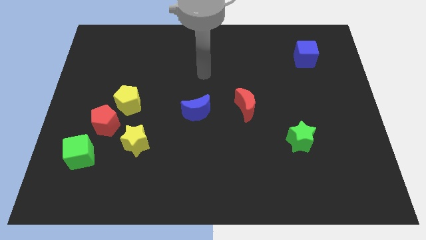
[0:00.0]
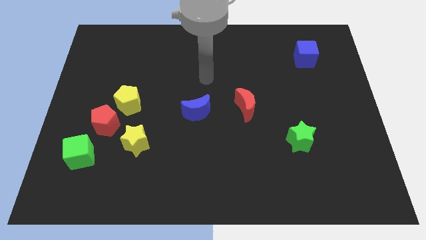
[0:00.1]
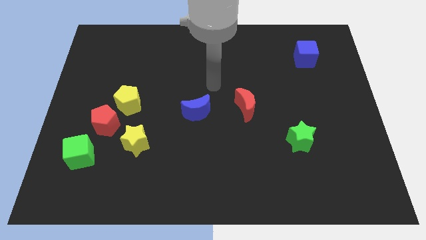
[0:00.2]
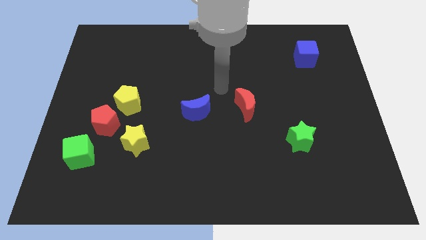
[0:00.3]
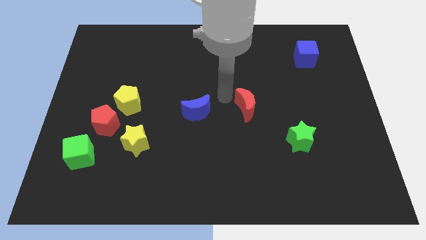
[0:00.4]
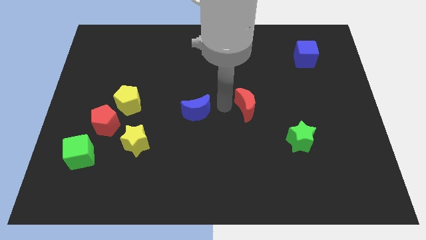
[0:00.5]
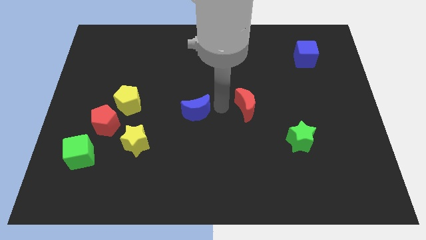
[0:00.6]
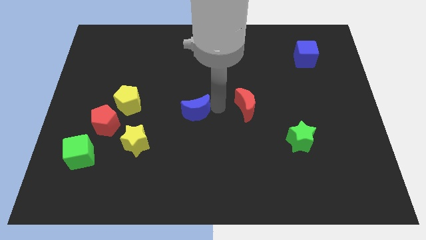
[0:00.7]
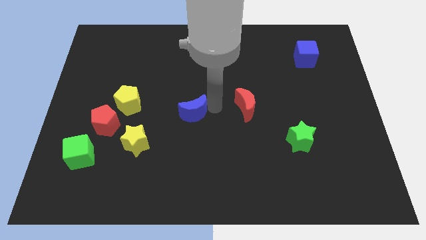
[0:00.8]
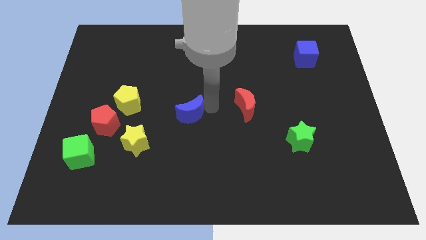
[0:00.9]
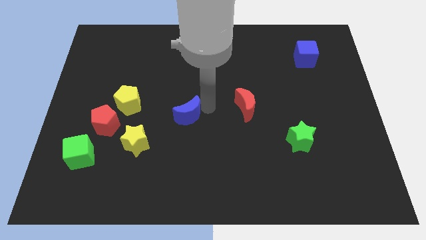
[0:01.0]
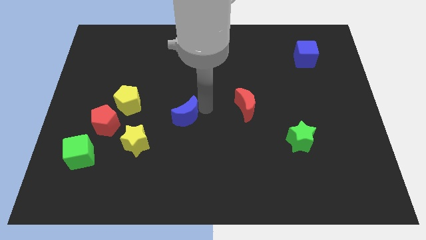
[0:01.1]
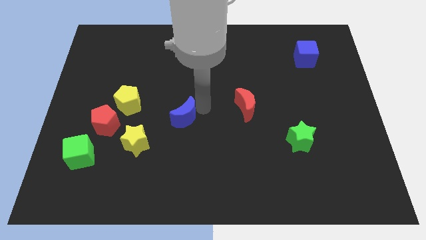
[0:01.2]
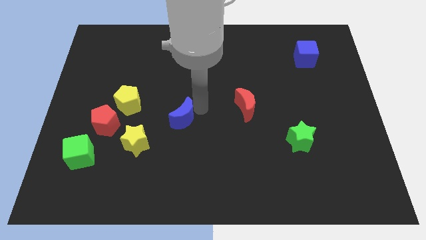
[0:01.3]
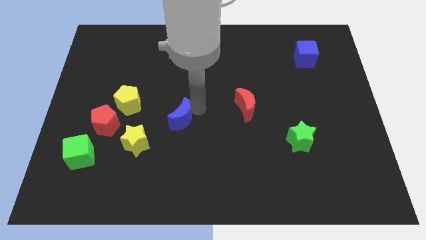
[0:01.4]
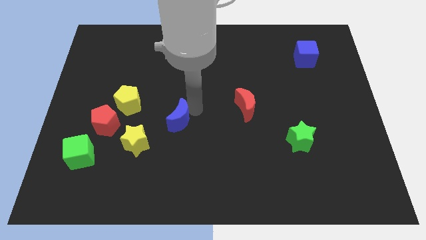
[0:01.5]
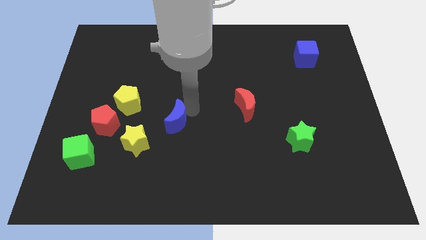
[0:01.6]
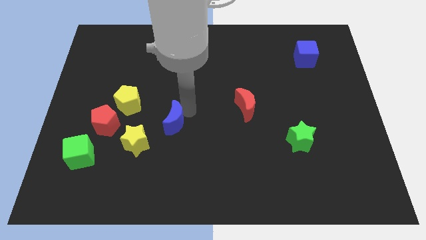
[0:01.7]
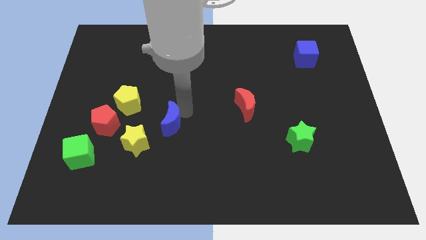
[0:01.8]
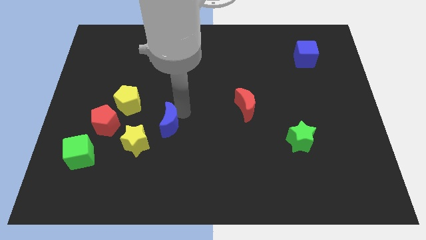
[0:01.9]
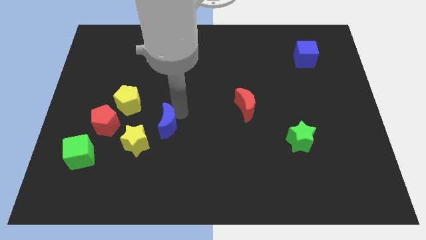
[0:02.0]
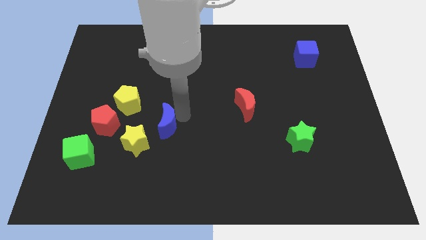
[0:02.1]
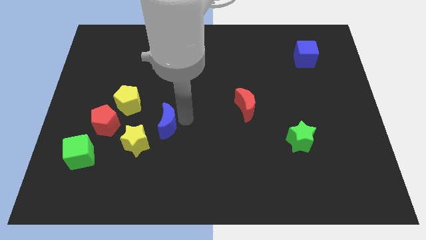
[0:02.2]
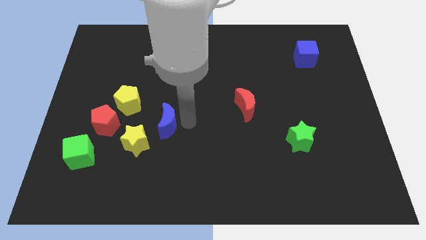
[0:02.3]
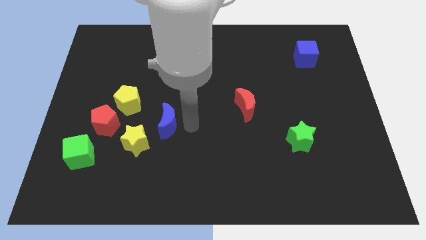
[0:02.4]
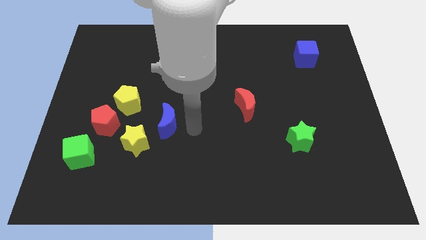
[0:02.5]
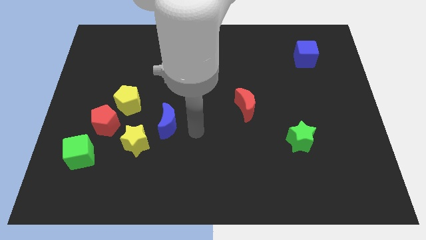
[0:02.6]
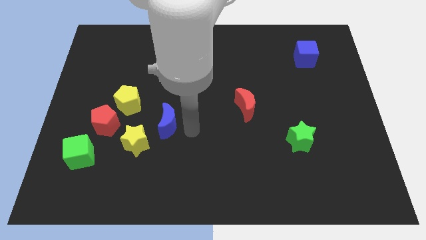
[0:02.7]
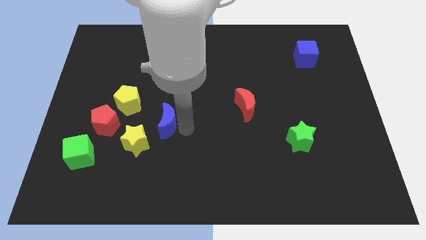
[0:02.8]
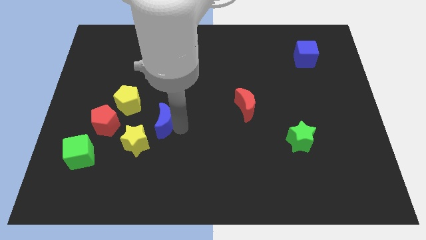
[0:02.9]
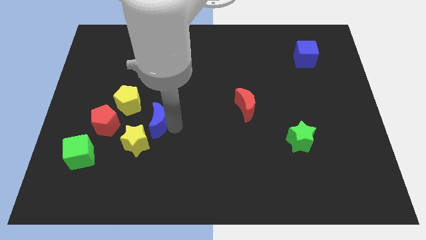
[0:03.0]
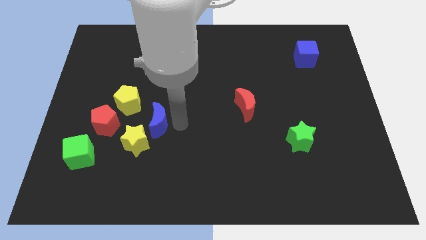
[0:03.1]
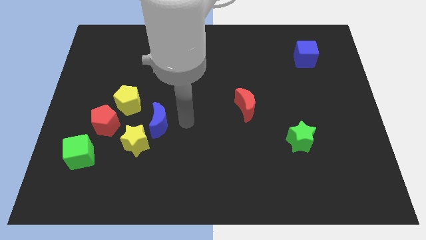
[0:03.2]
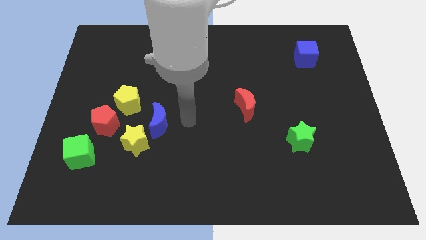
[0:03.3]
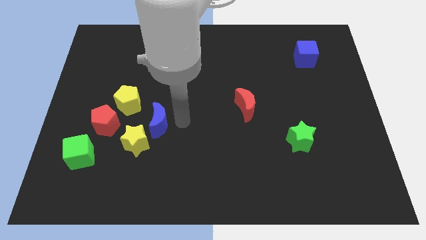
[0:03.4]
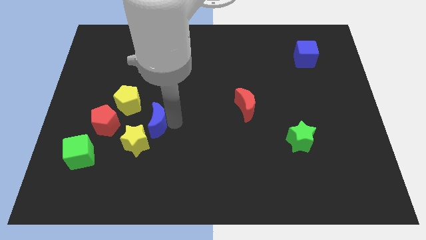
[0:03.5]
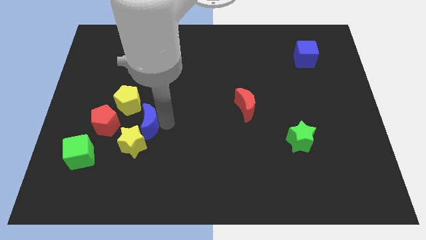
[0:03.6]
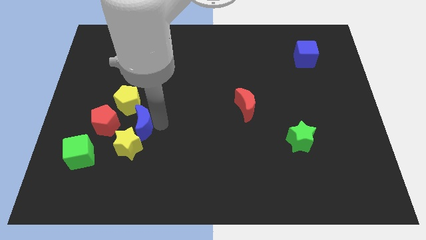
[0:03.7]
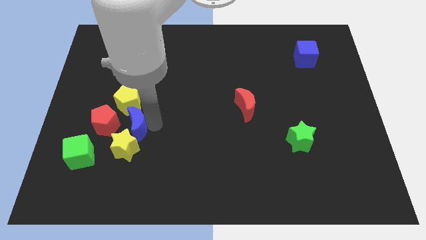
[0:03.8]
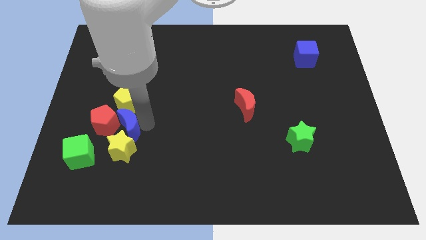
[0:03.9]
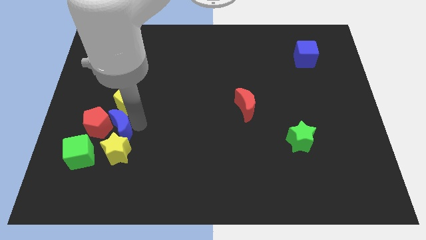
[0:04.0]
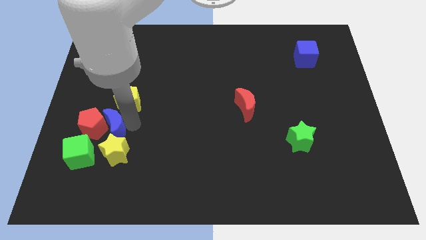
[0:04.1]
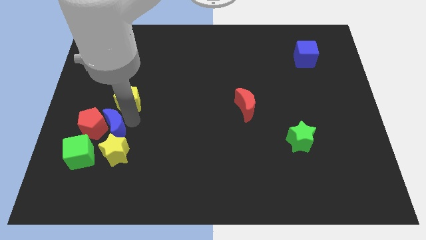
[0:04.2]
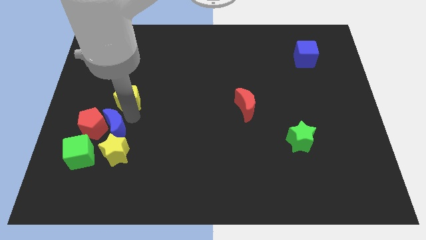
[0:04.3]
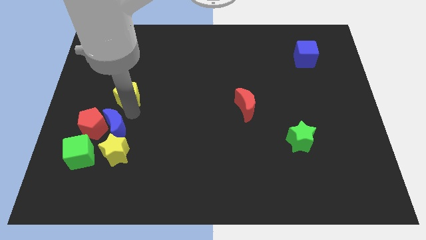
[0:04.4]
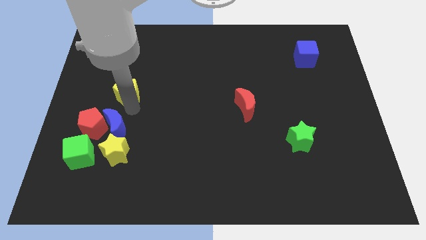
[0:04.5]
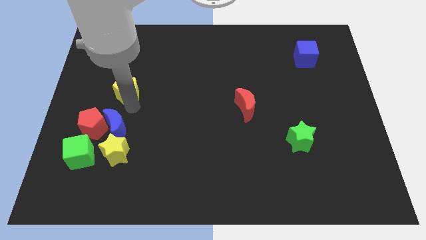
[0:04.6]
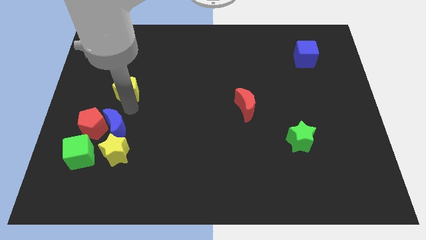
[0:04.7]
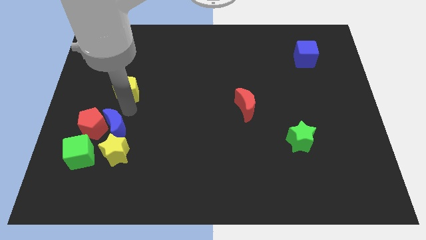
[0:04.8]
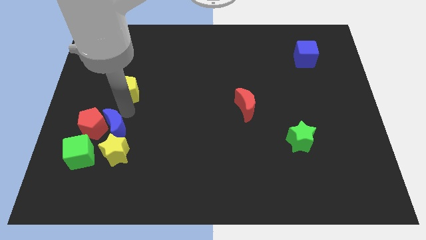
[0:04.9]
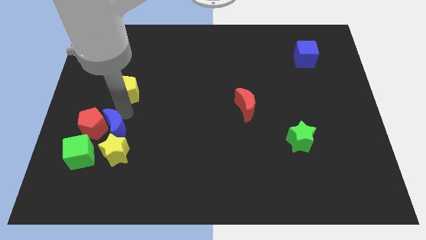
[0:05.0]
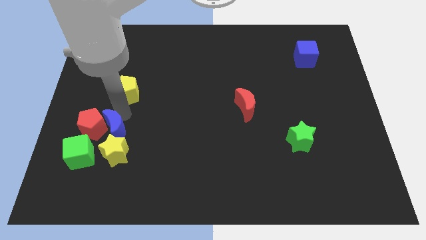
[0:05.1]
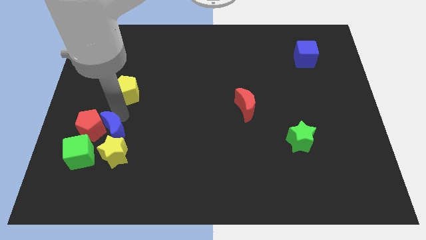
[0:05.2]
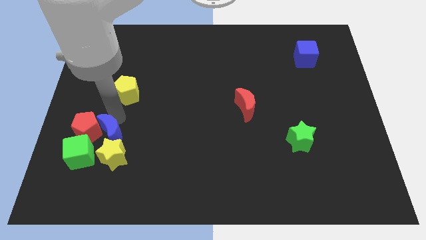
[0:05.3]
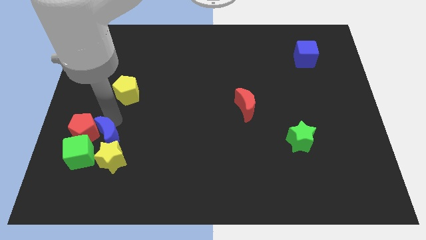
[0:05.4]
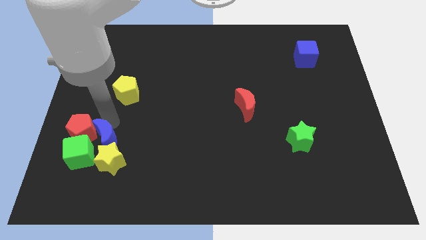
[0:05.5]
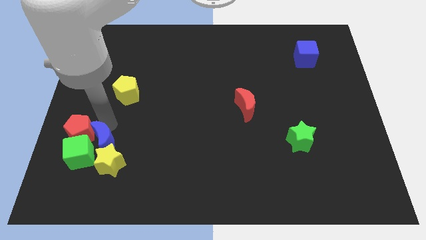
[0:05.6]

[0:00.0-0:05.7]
put the blue moon towards the green cube
